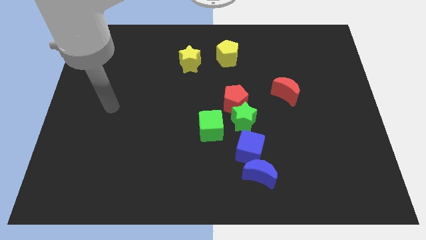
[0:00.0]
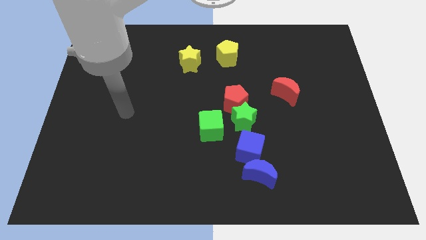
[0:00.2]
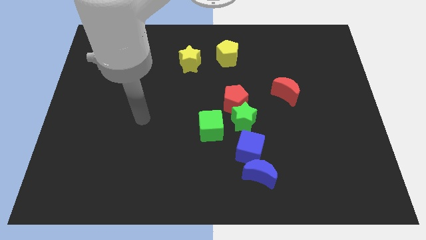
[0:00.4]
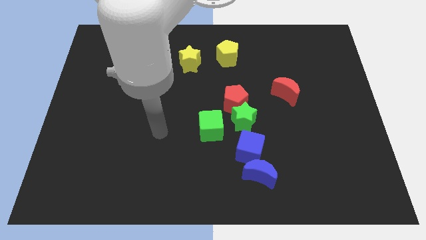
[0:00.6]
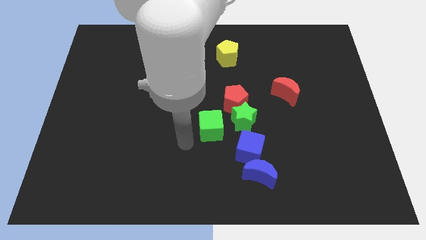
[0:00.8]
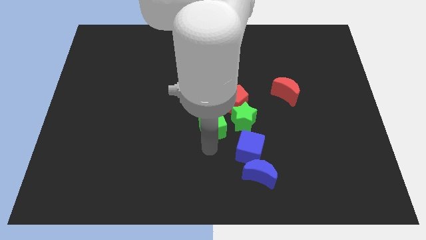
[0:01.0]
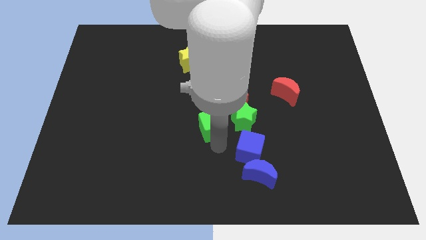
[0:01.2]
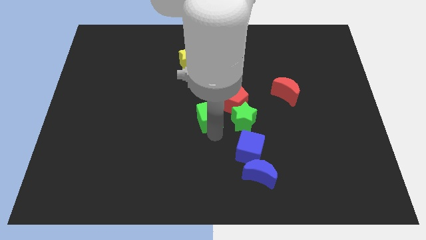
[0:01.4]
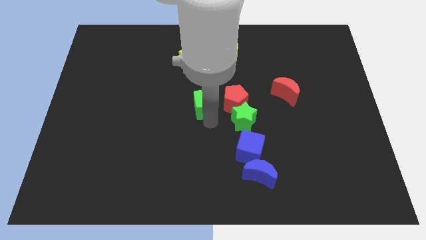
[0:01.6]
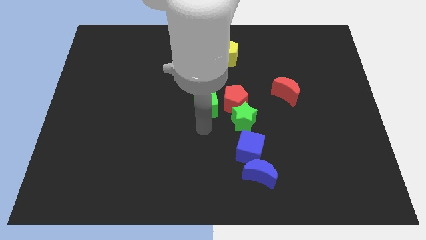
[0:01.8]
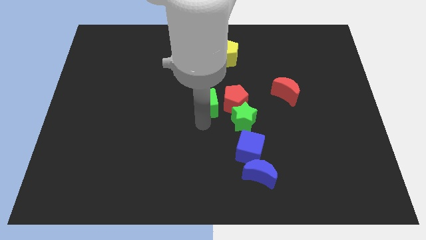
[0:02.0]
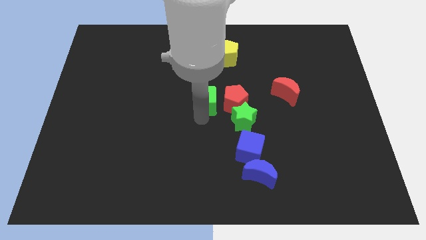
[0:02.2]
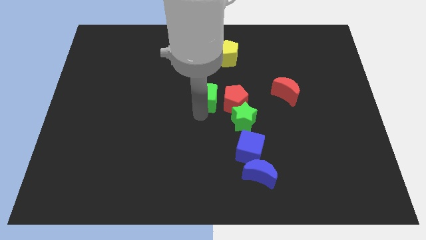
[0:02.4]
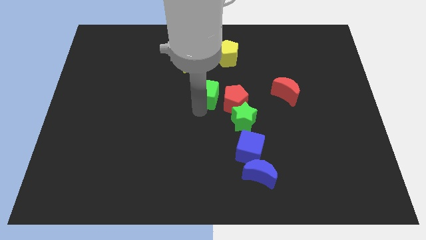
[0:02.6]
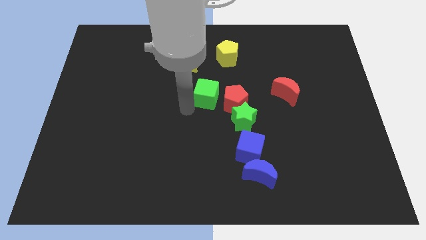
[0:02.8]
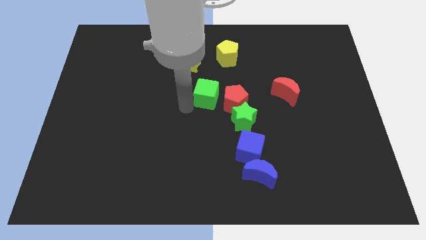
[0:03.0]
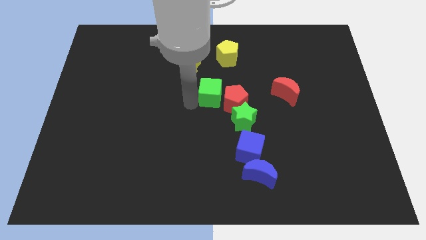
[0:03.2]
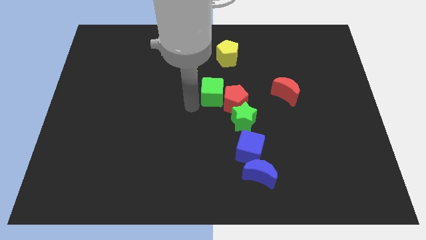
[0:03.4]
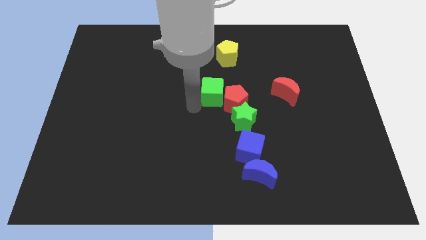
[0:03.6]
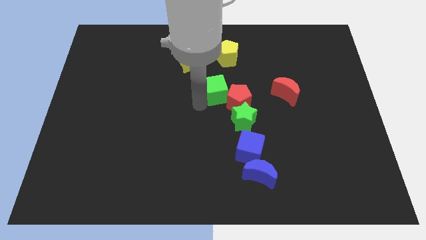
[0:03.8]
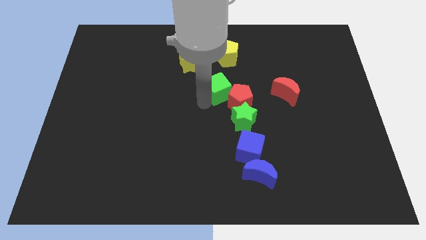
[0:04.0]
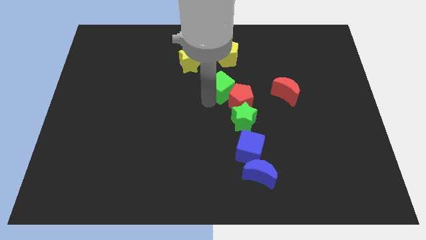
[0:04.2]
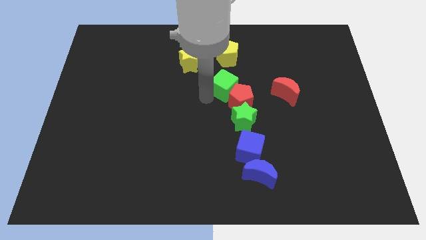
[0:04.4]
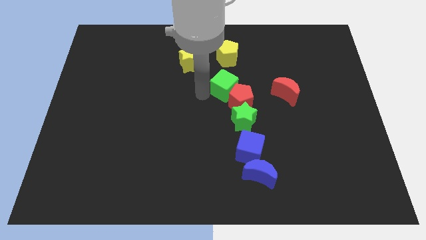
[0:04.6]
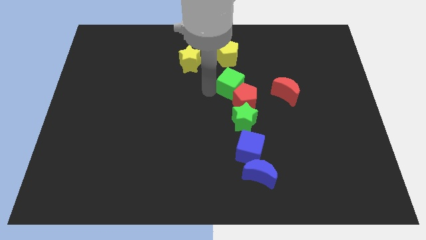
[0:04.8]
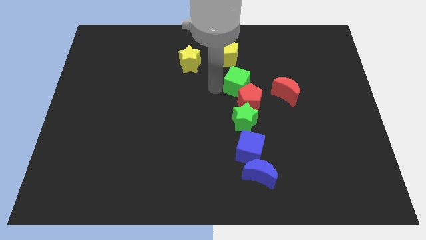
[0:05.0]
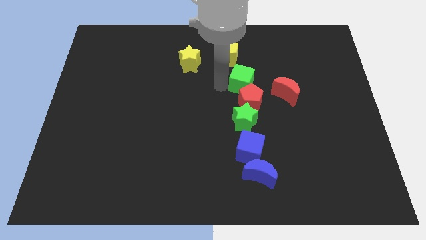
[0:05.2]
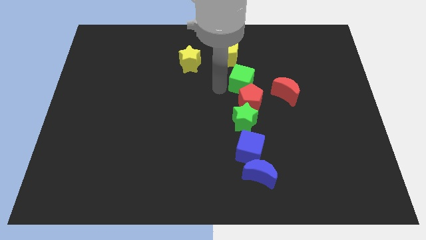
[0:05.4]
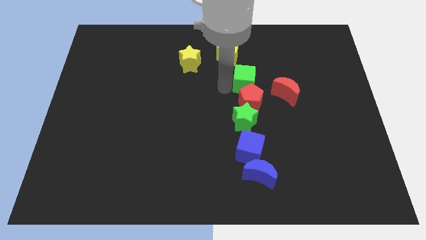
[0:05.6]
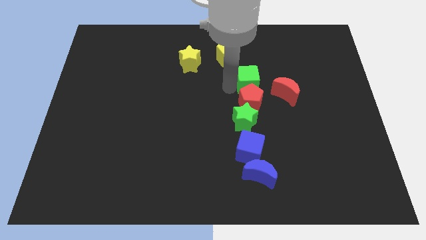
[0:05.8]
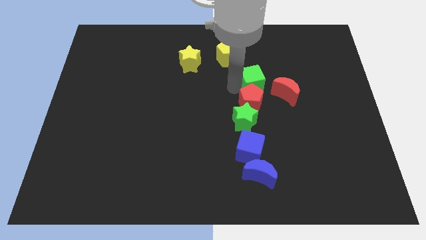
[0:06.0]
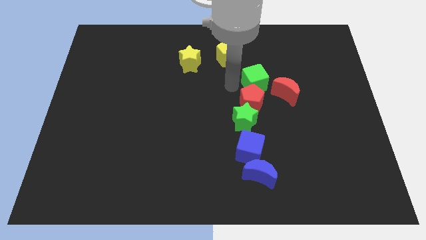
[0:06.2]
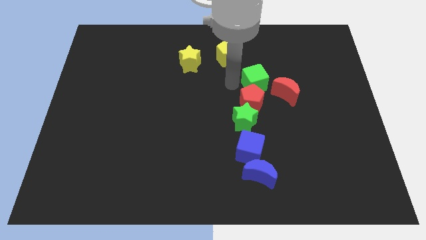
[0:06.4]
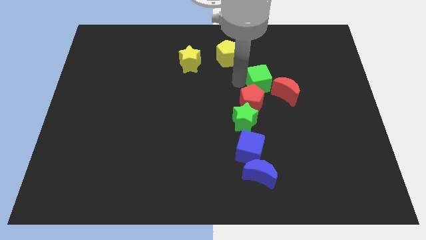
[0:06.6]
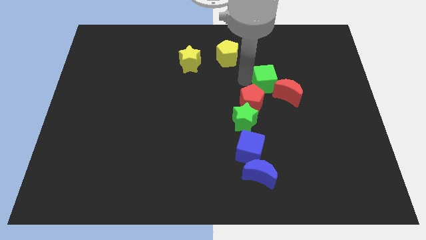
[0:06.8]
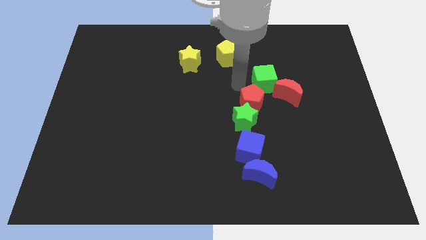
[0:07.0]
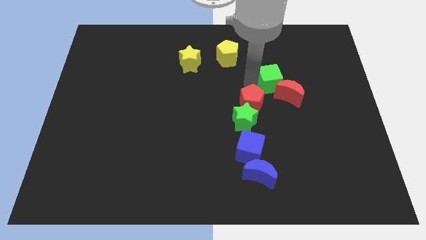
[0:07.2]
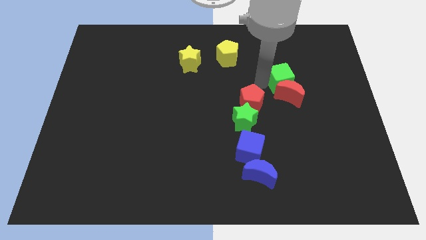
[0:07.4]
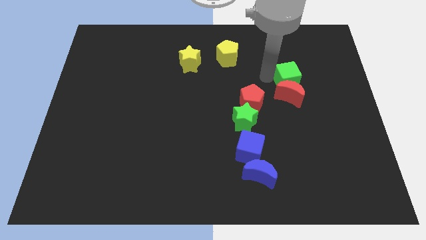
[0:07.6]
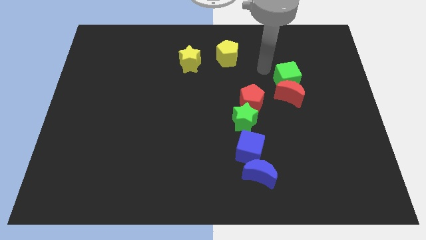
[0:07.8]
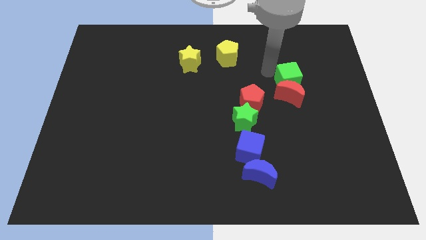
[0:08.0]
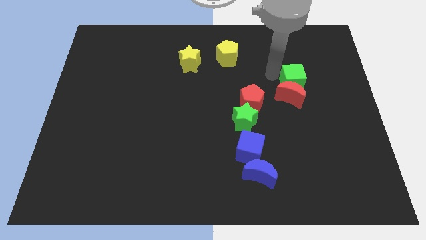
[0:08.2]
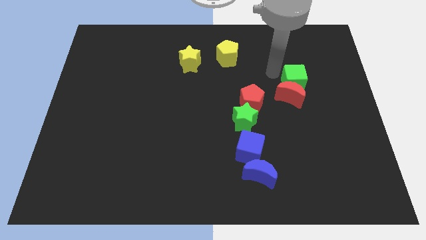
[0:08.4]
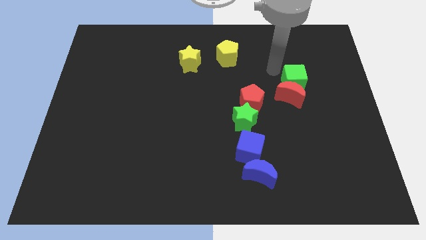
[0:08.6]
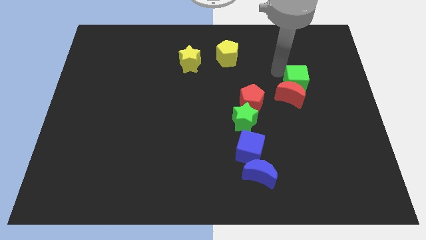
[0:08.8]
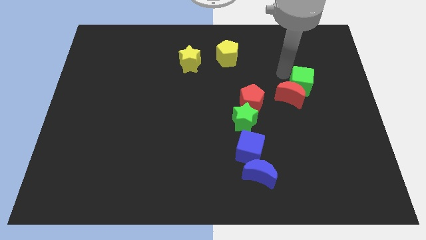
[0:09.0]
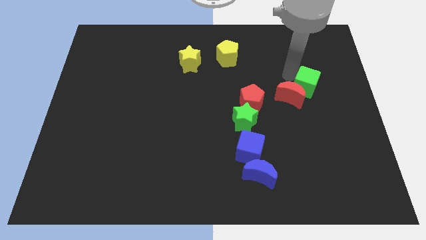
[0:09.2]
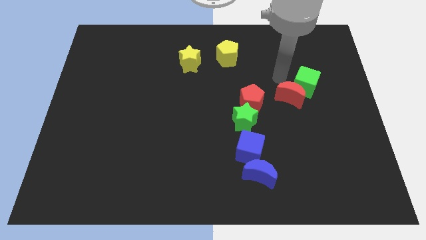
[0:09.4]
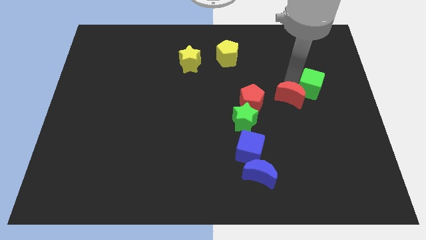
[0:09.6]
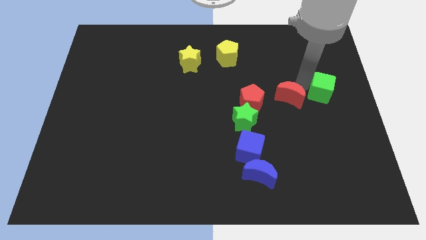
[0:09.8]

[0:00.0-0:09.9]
push the green cube to the center right

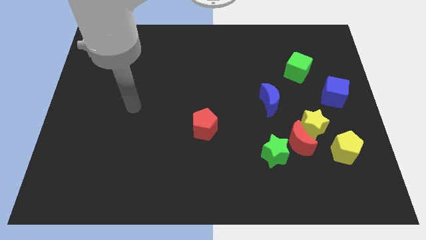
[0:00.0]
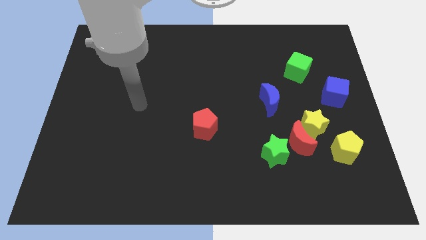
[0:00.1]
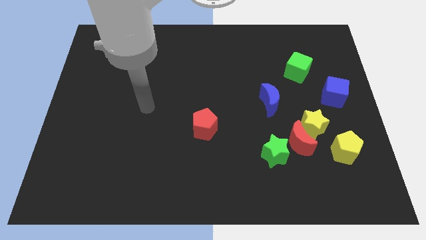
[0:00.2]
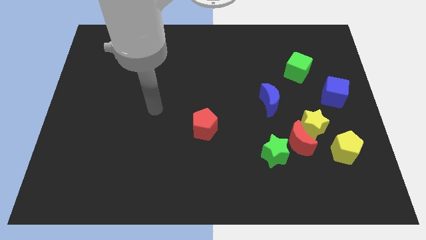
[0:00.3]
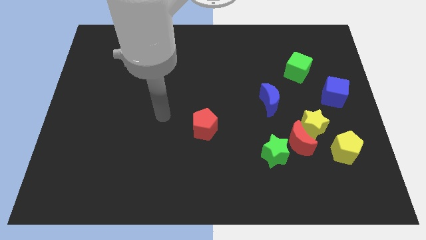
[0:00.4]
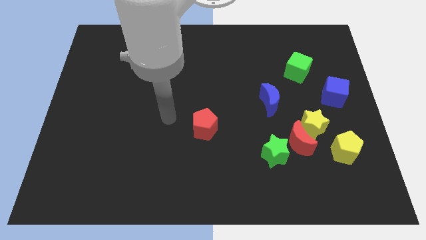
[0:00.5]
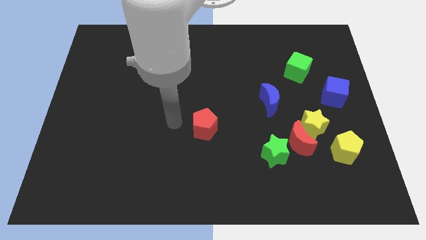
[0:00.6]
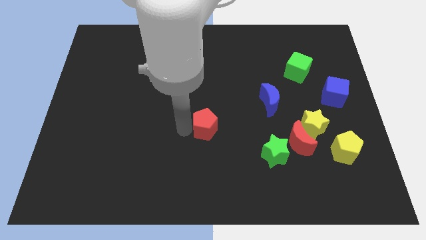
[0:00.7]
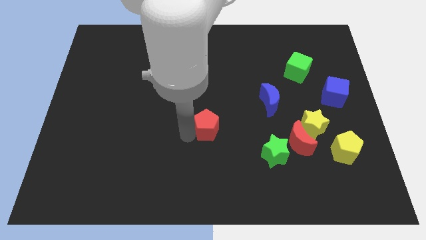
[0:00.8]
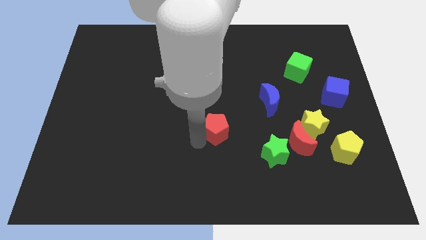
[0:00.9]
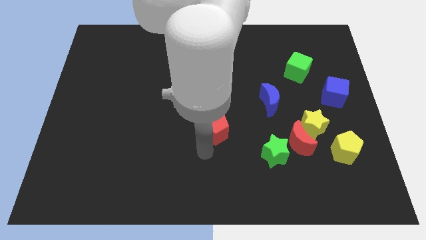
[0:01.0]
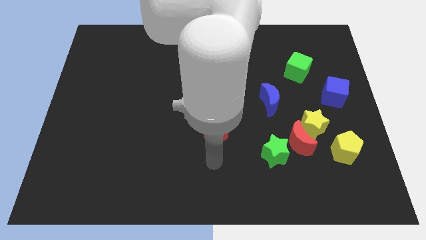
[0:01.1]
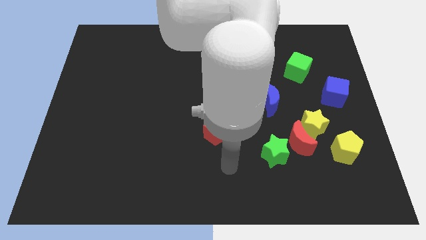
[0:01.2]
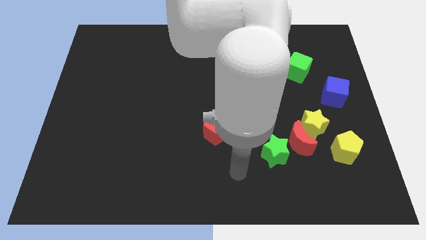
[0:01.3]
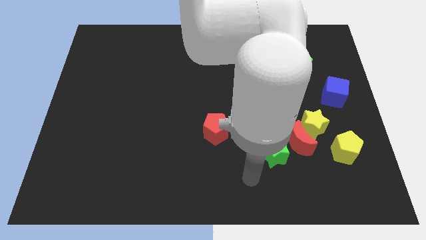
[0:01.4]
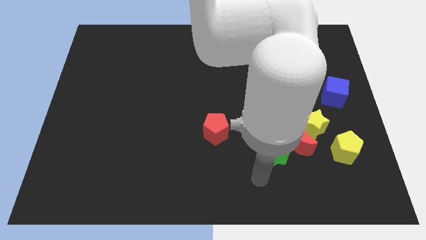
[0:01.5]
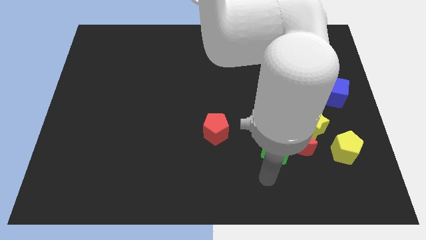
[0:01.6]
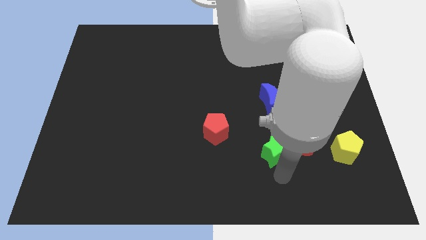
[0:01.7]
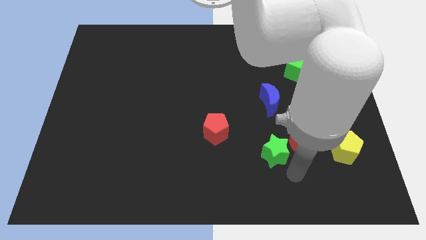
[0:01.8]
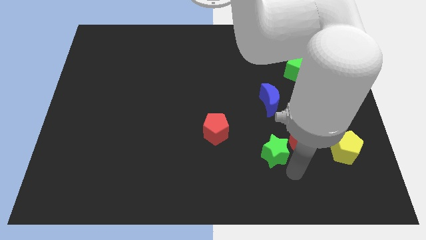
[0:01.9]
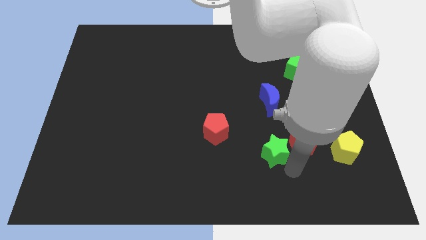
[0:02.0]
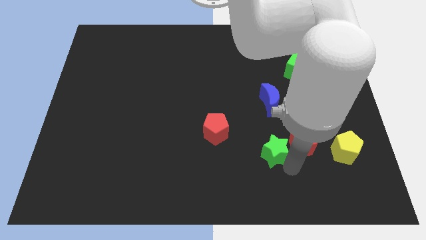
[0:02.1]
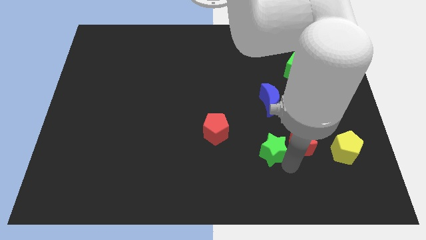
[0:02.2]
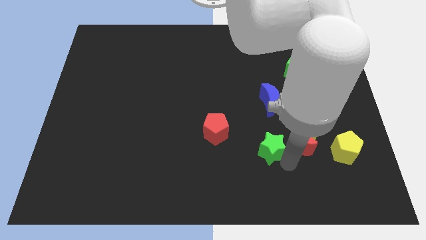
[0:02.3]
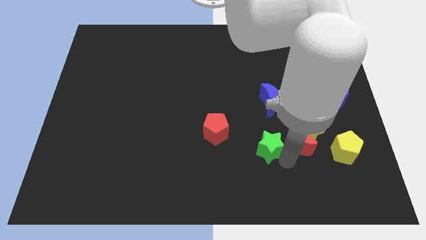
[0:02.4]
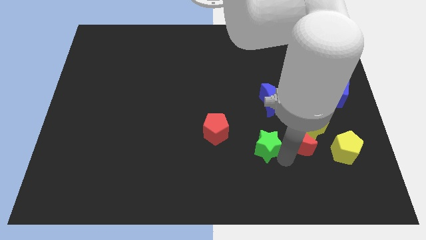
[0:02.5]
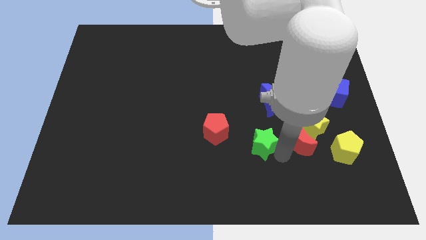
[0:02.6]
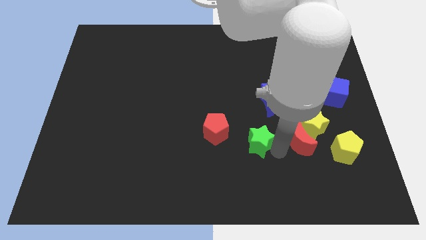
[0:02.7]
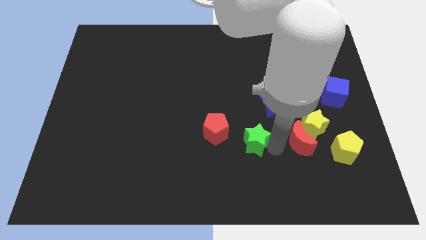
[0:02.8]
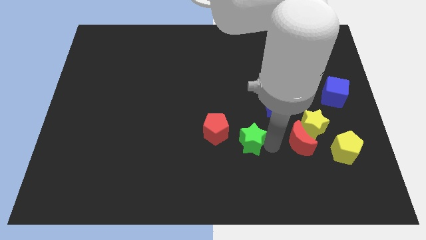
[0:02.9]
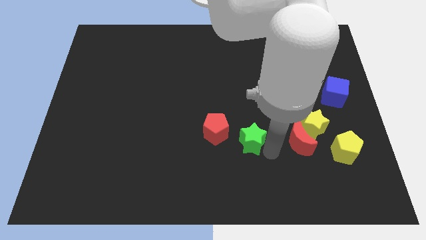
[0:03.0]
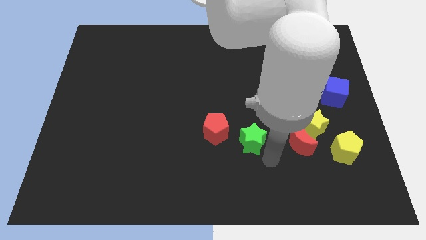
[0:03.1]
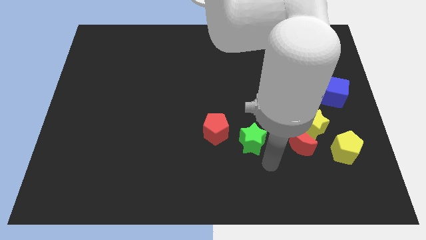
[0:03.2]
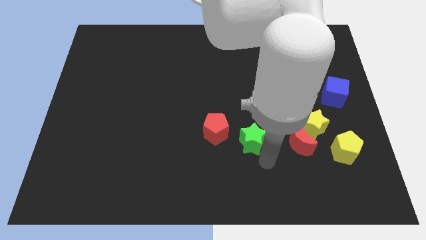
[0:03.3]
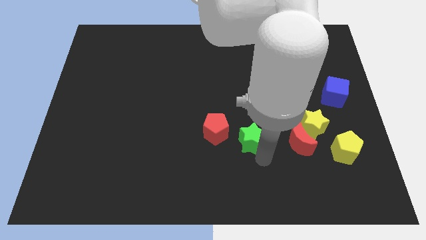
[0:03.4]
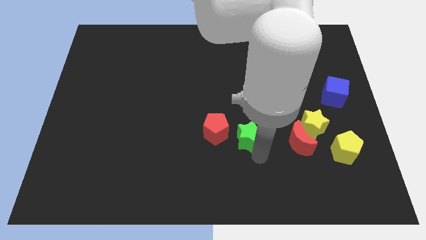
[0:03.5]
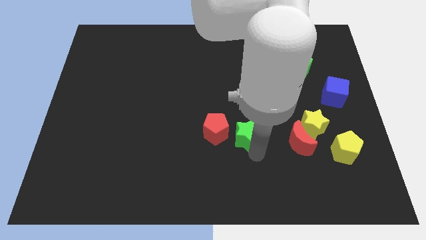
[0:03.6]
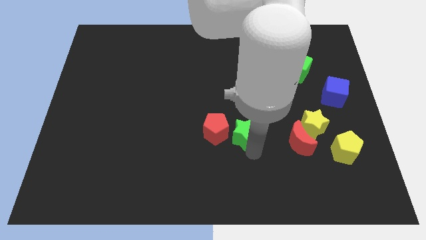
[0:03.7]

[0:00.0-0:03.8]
move the green star to the middle
